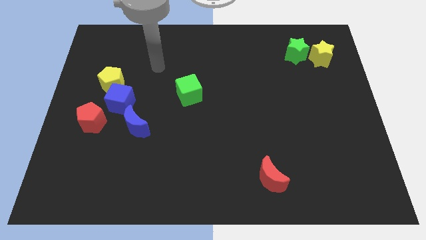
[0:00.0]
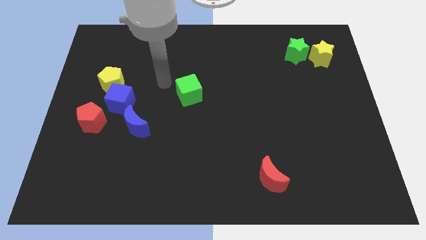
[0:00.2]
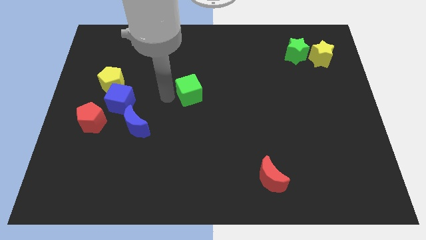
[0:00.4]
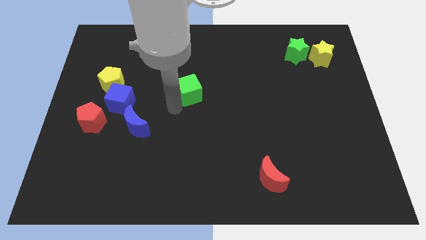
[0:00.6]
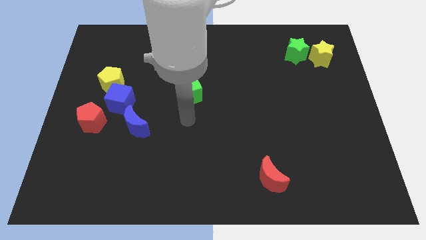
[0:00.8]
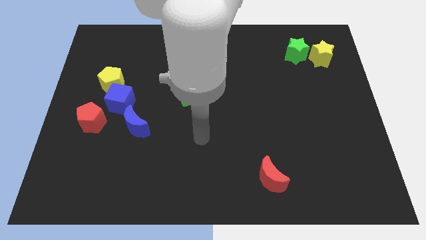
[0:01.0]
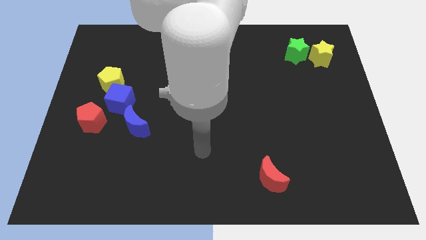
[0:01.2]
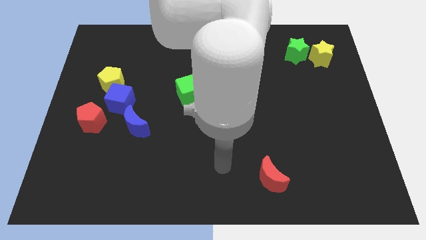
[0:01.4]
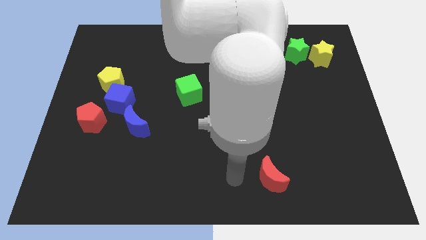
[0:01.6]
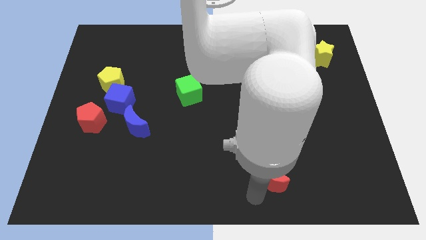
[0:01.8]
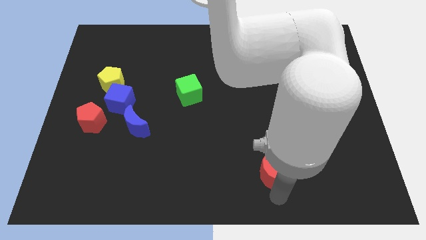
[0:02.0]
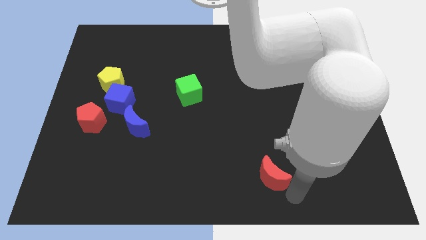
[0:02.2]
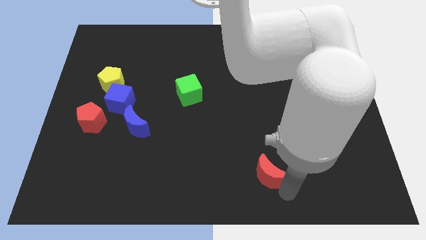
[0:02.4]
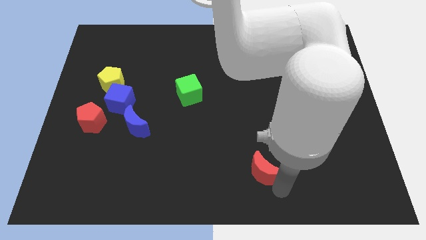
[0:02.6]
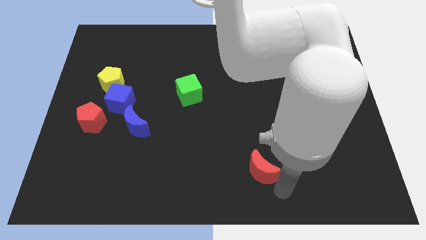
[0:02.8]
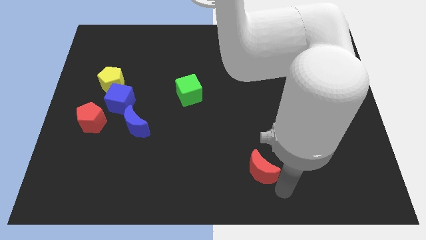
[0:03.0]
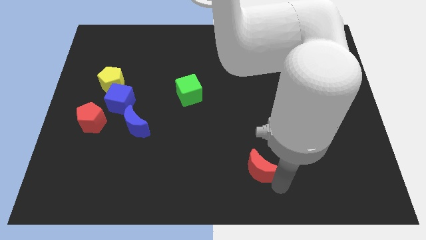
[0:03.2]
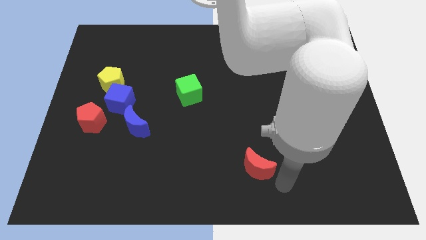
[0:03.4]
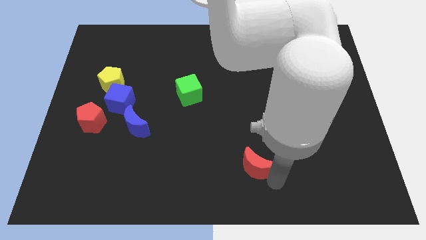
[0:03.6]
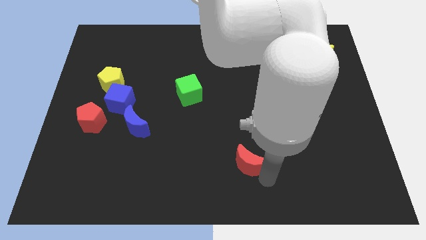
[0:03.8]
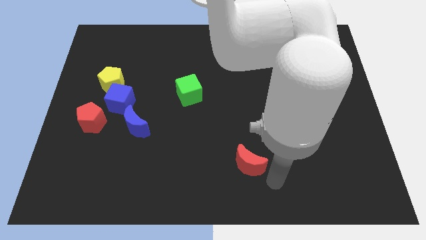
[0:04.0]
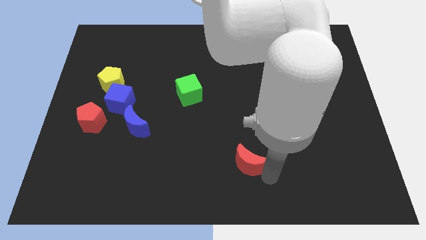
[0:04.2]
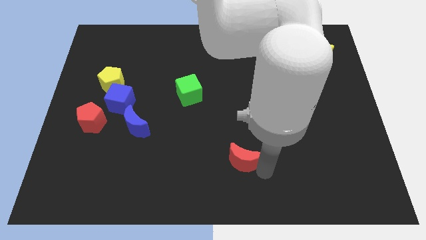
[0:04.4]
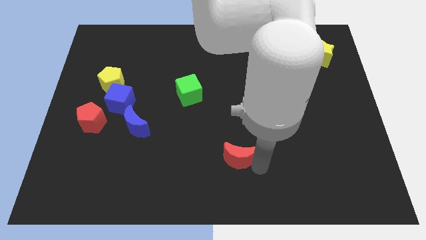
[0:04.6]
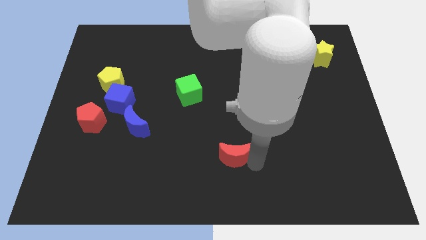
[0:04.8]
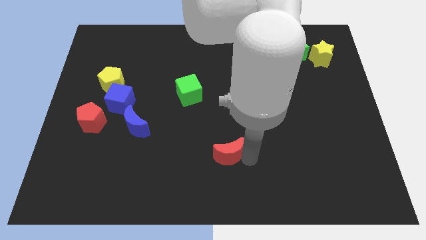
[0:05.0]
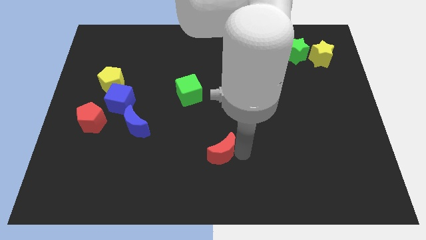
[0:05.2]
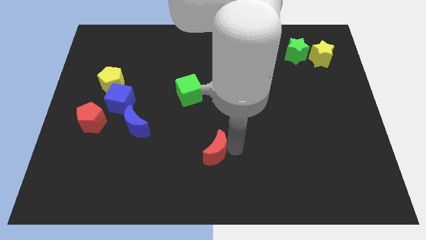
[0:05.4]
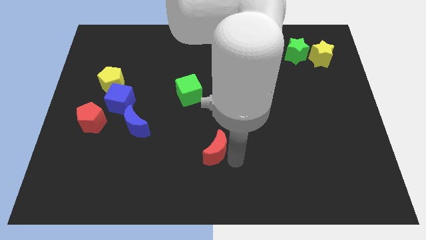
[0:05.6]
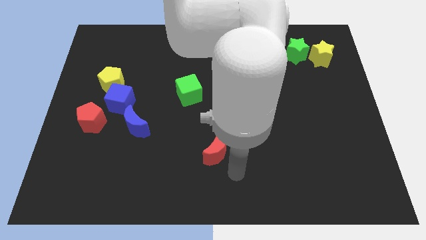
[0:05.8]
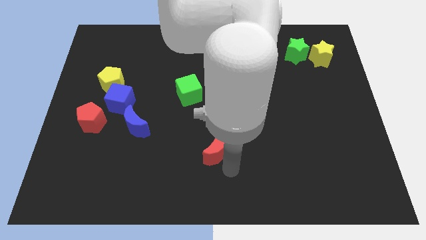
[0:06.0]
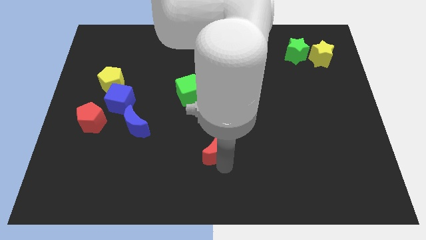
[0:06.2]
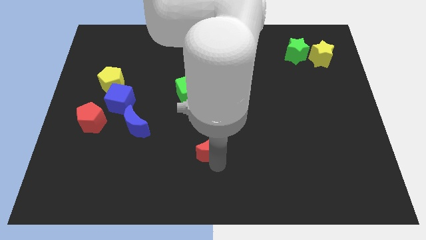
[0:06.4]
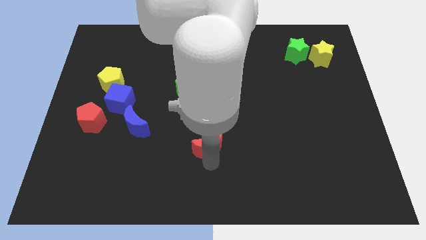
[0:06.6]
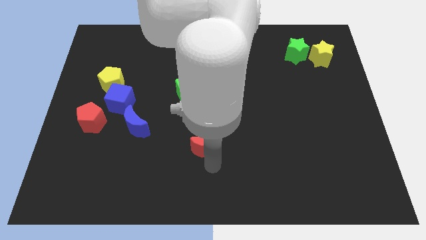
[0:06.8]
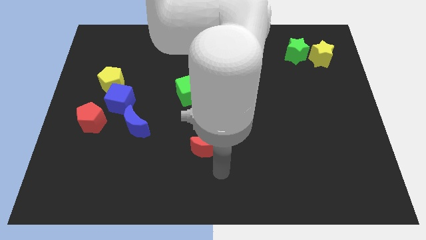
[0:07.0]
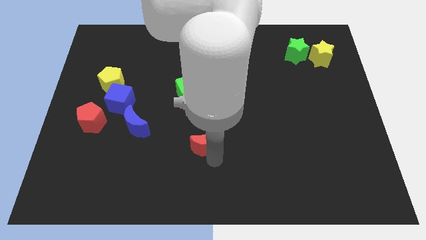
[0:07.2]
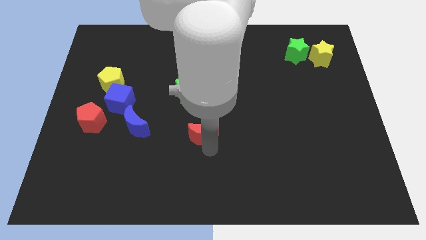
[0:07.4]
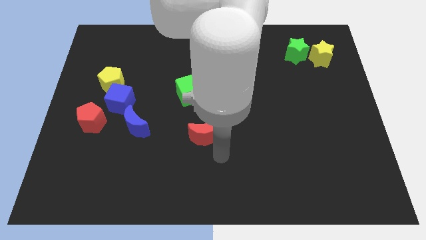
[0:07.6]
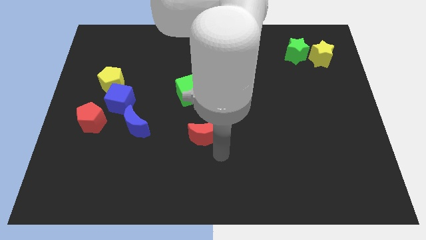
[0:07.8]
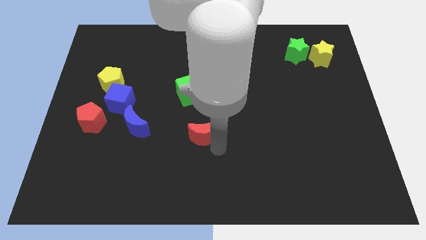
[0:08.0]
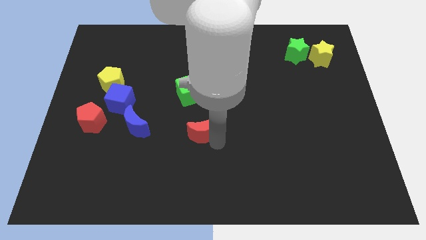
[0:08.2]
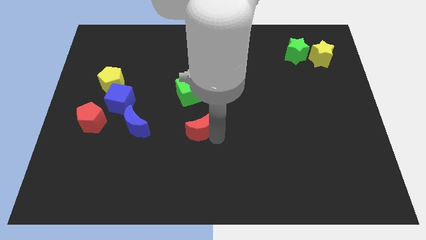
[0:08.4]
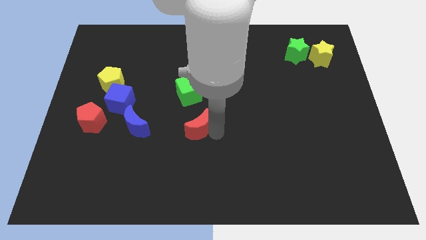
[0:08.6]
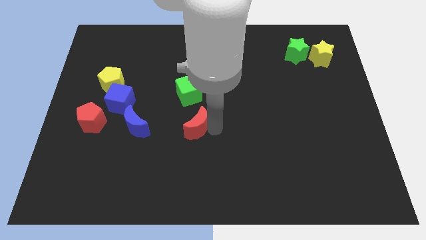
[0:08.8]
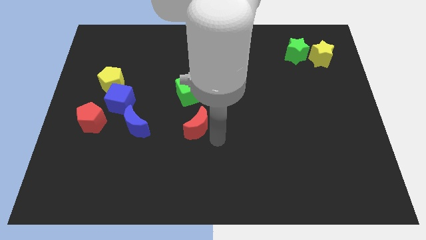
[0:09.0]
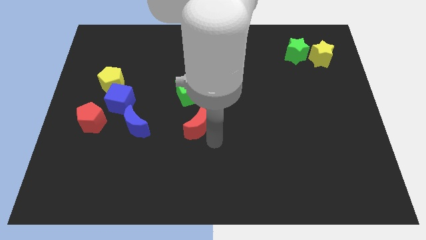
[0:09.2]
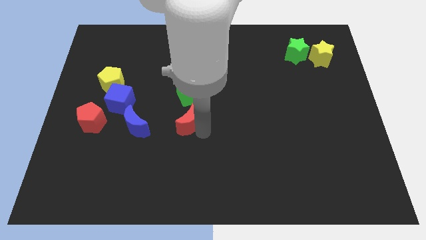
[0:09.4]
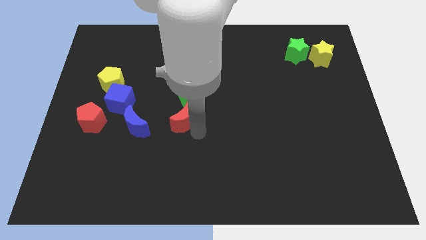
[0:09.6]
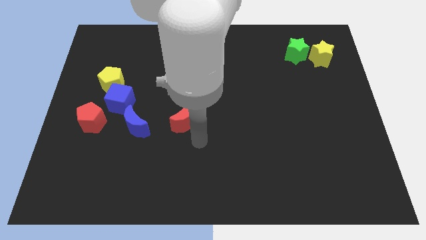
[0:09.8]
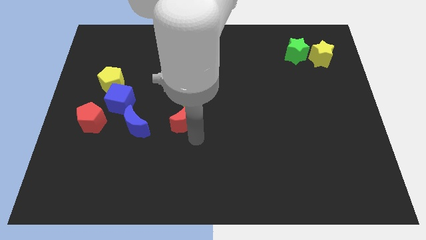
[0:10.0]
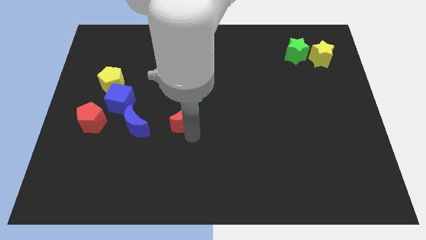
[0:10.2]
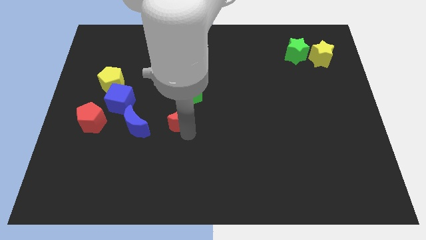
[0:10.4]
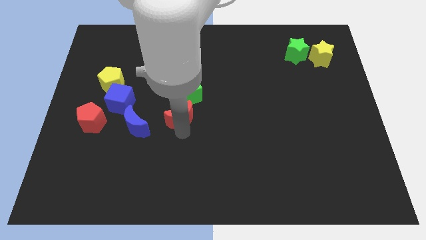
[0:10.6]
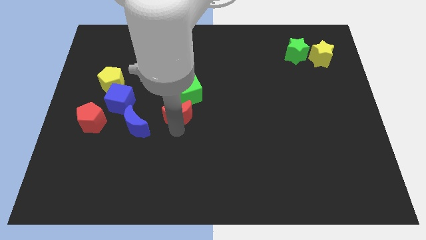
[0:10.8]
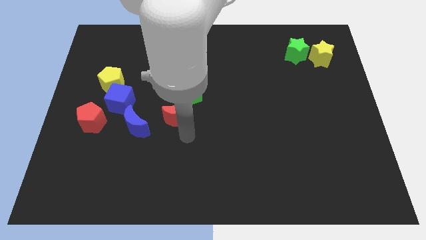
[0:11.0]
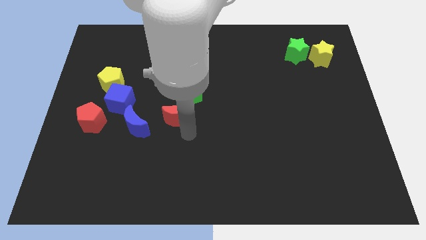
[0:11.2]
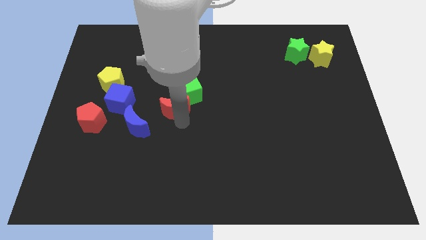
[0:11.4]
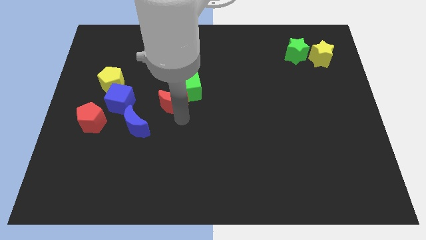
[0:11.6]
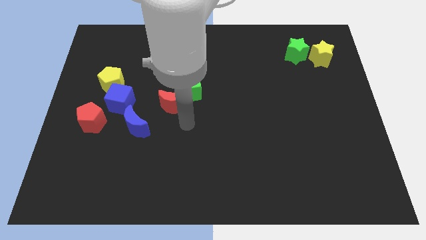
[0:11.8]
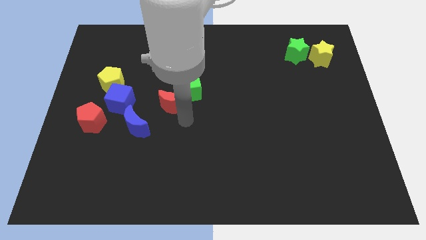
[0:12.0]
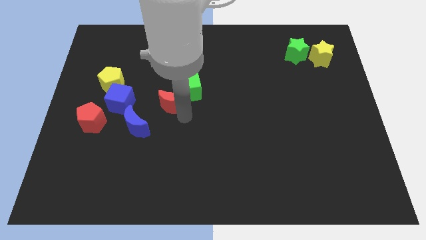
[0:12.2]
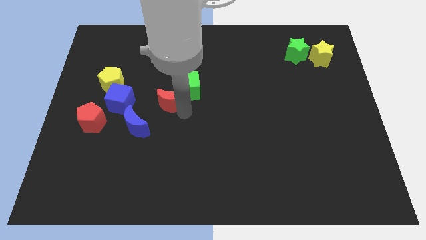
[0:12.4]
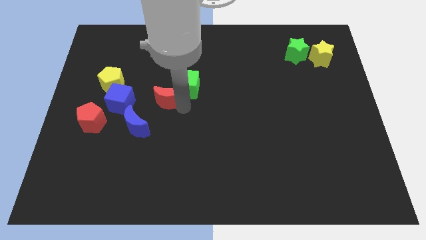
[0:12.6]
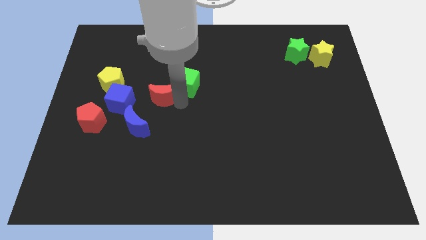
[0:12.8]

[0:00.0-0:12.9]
move the red moon just right of the yellow pentagon

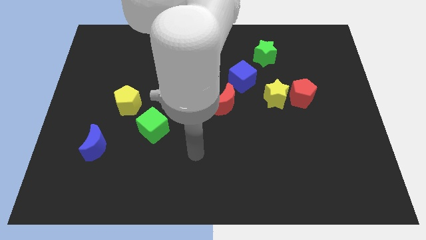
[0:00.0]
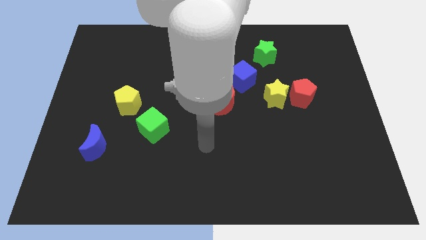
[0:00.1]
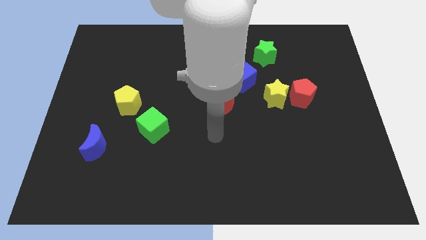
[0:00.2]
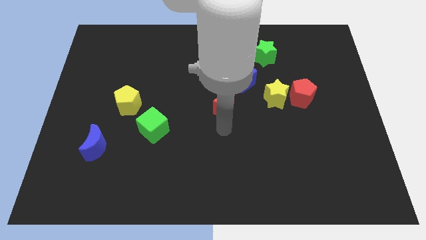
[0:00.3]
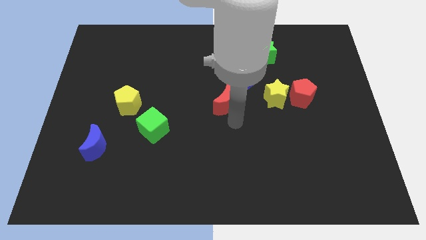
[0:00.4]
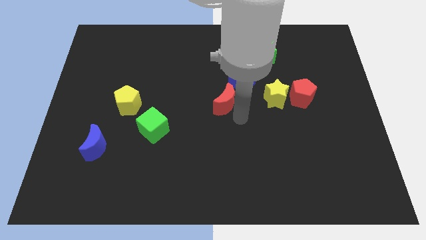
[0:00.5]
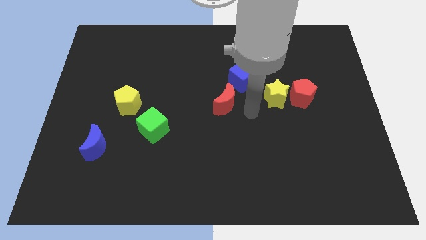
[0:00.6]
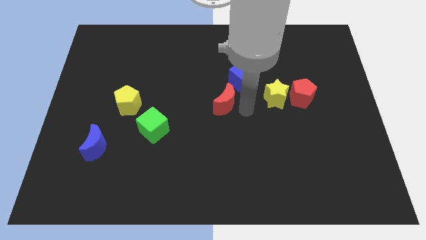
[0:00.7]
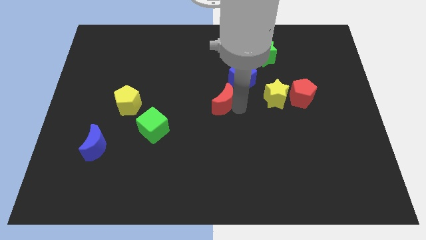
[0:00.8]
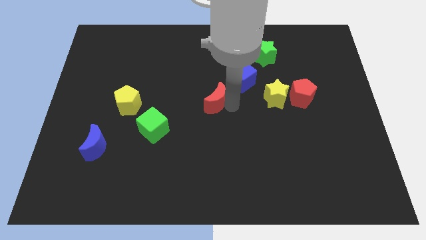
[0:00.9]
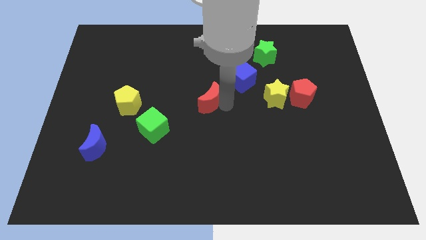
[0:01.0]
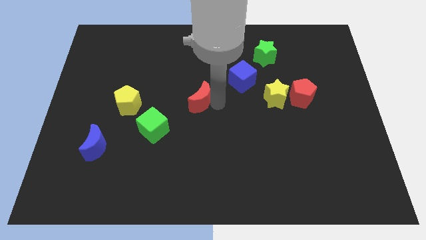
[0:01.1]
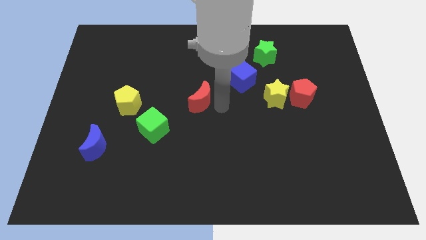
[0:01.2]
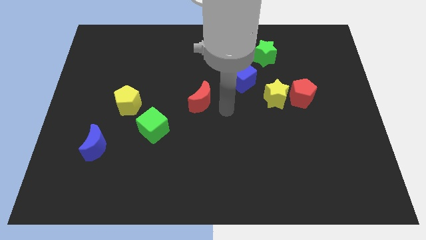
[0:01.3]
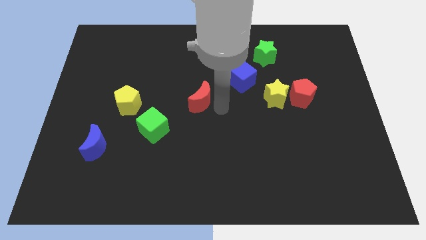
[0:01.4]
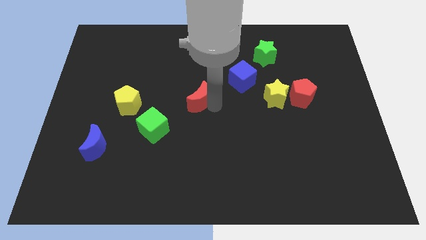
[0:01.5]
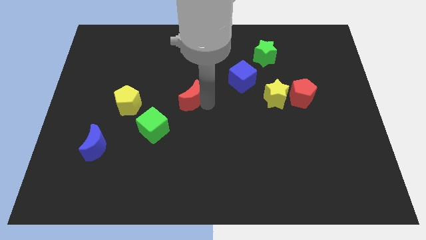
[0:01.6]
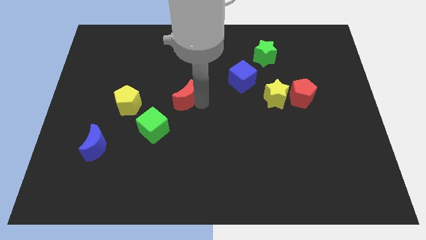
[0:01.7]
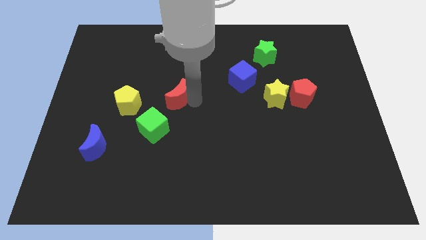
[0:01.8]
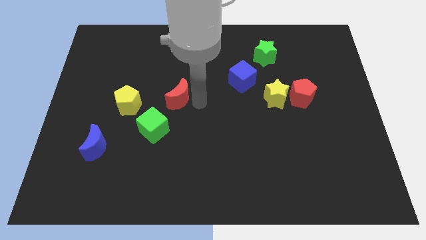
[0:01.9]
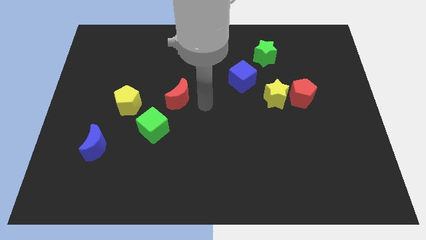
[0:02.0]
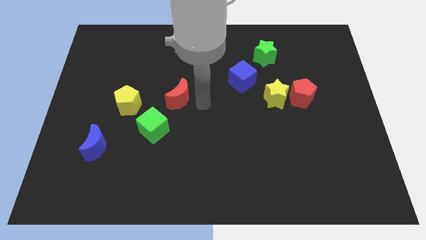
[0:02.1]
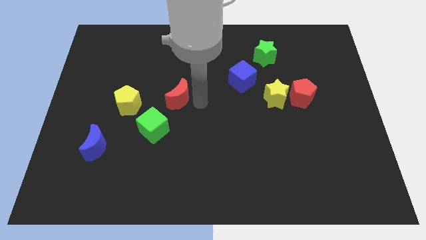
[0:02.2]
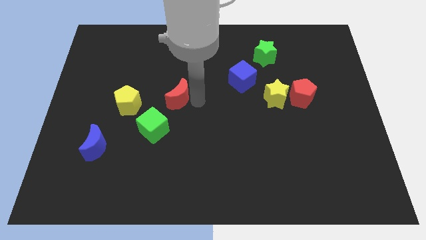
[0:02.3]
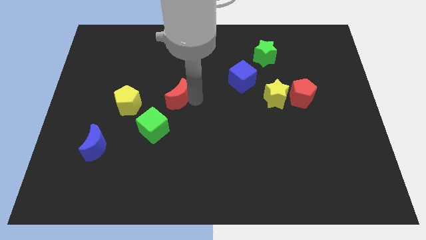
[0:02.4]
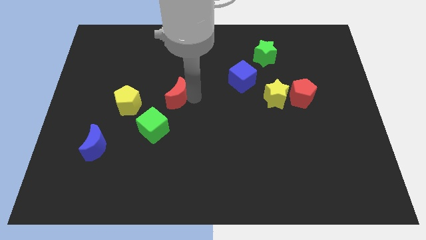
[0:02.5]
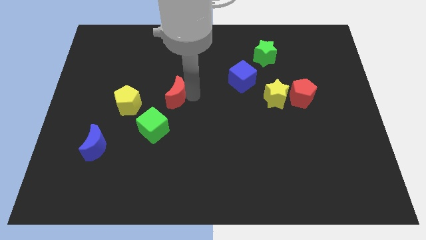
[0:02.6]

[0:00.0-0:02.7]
slide the red moon above the green cube
